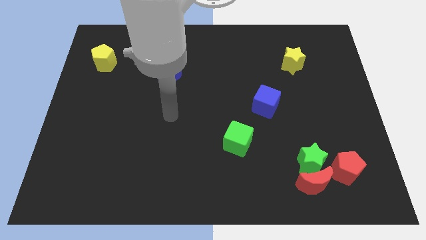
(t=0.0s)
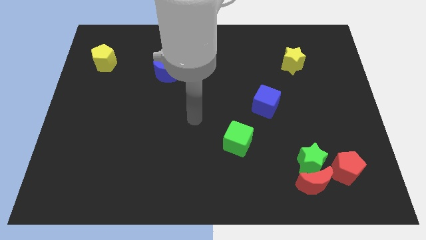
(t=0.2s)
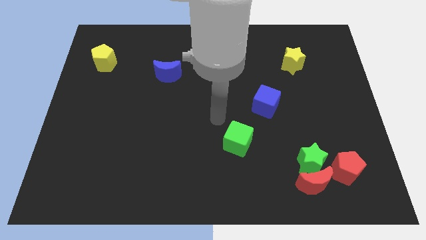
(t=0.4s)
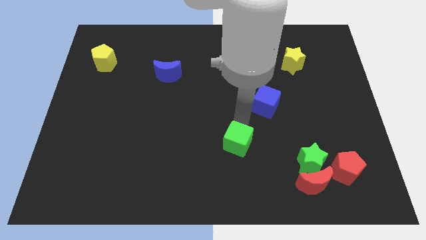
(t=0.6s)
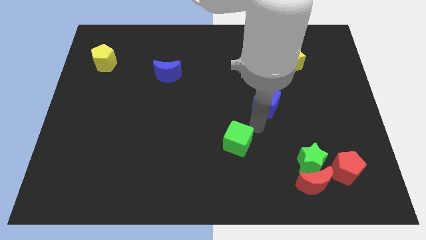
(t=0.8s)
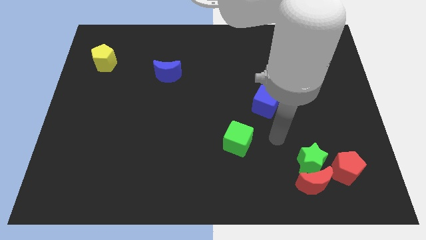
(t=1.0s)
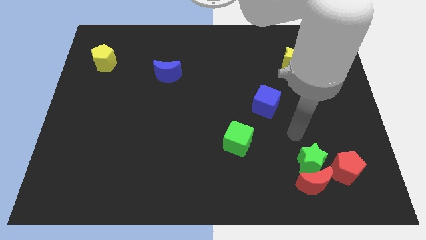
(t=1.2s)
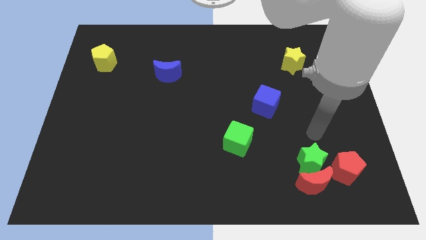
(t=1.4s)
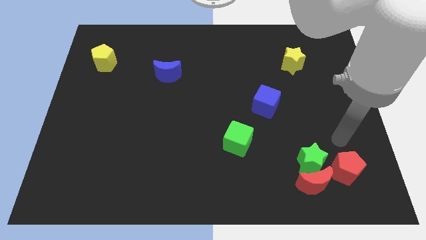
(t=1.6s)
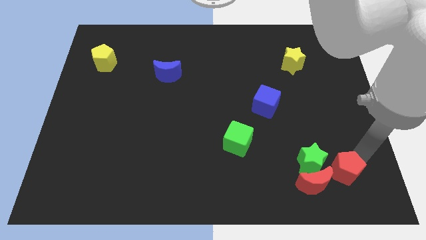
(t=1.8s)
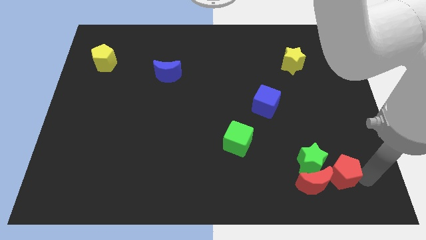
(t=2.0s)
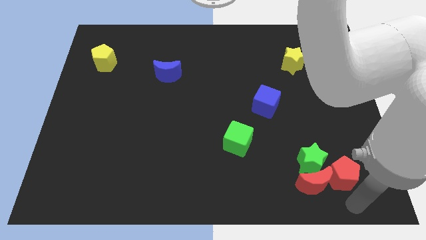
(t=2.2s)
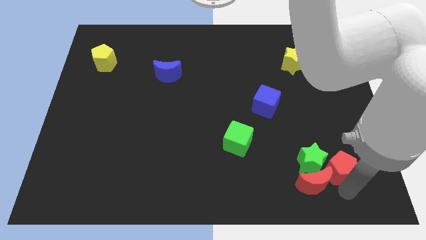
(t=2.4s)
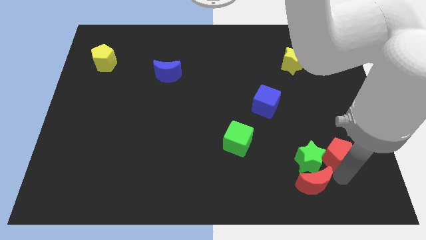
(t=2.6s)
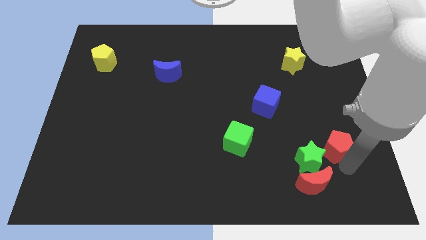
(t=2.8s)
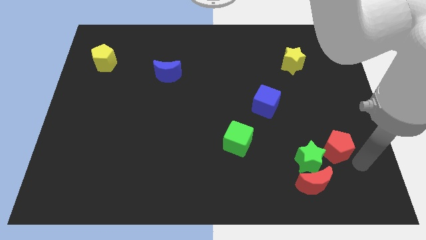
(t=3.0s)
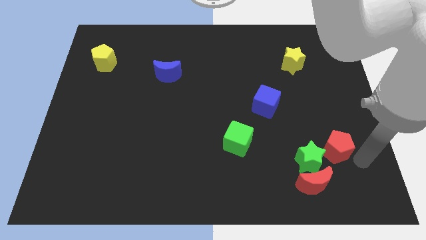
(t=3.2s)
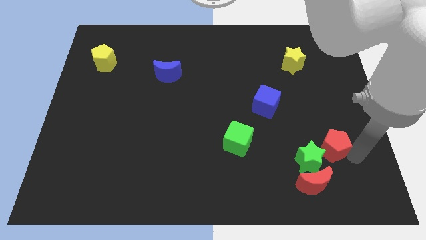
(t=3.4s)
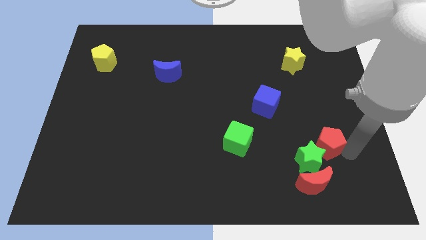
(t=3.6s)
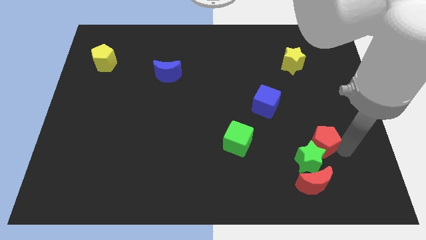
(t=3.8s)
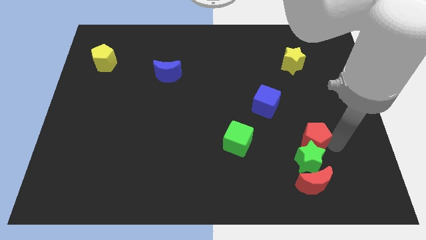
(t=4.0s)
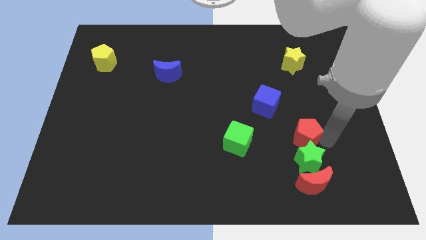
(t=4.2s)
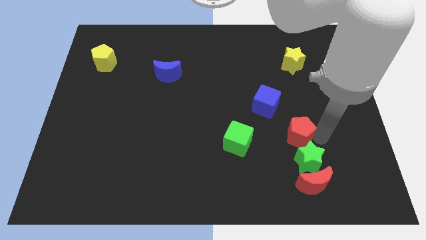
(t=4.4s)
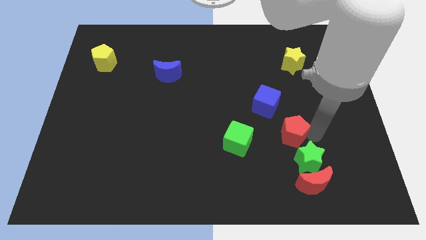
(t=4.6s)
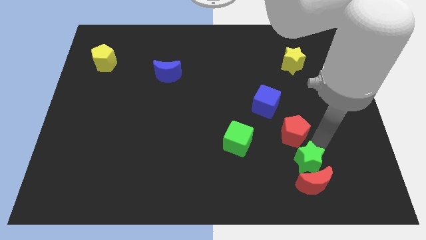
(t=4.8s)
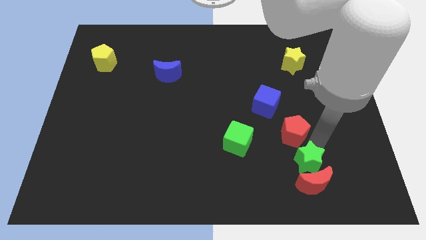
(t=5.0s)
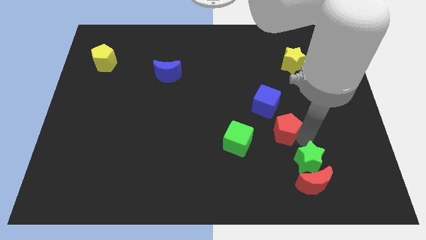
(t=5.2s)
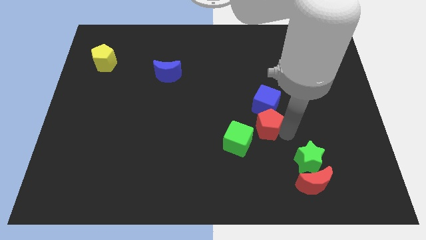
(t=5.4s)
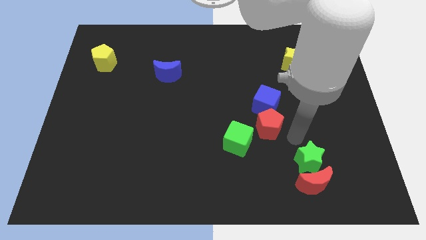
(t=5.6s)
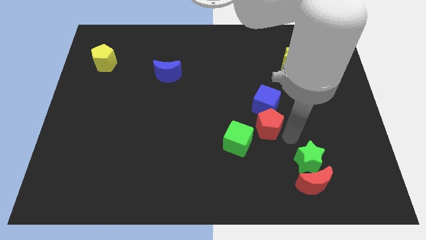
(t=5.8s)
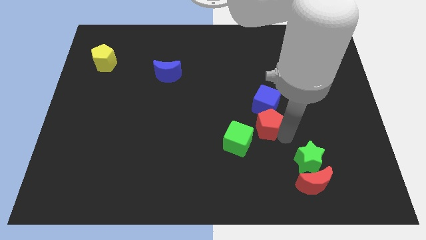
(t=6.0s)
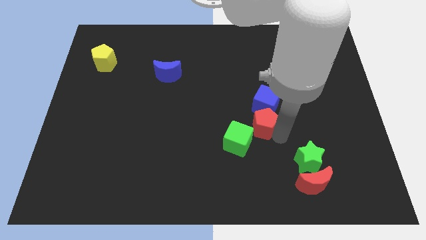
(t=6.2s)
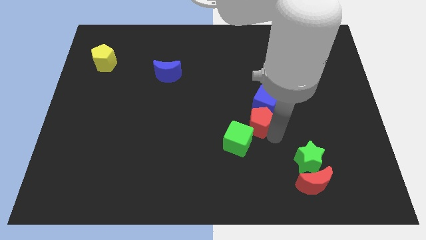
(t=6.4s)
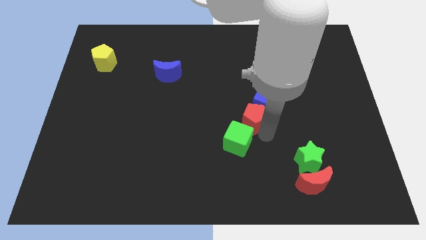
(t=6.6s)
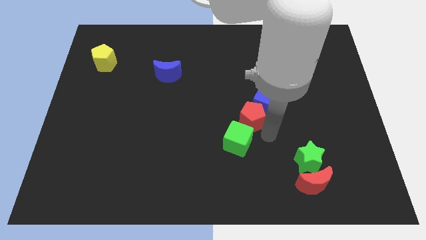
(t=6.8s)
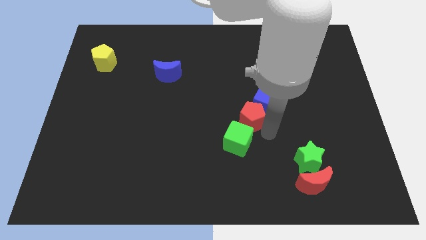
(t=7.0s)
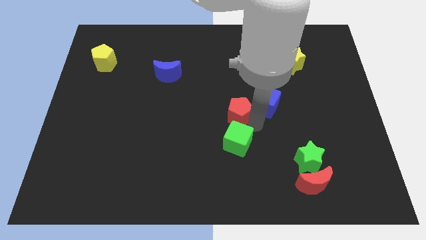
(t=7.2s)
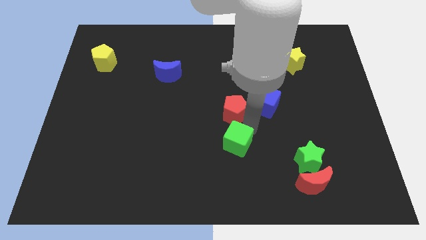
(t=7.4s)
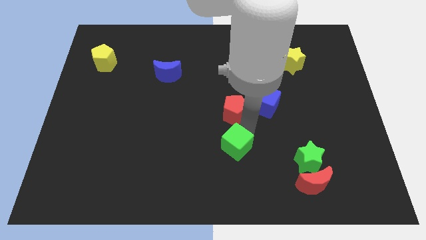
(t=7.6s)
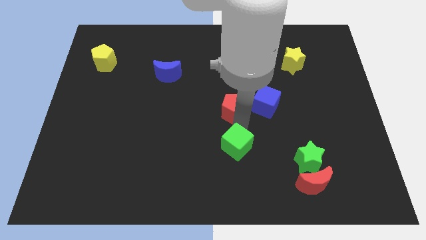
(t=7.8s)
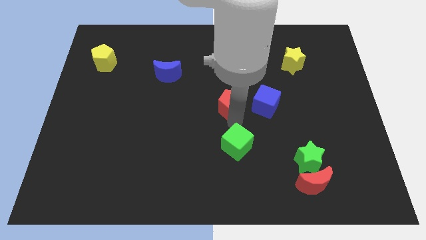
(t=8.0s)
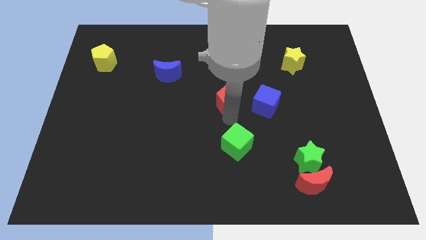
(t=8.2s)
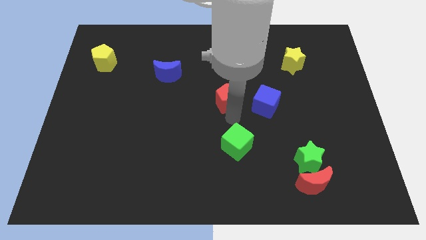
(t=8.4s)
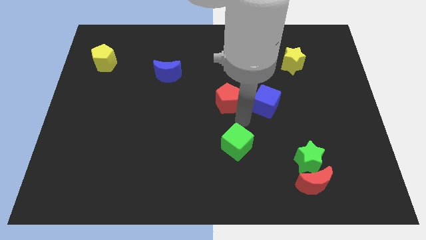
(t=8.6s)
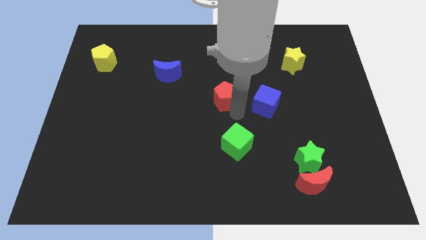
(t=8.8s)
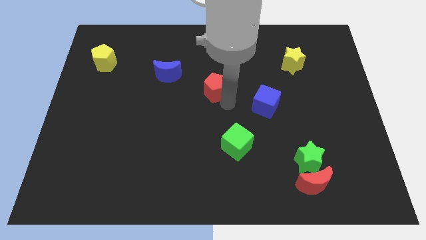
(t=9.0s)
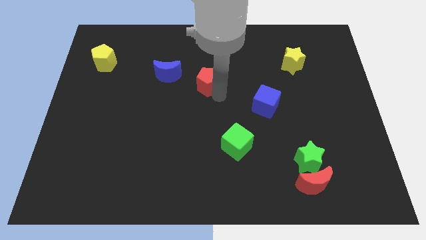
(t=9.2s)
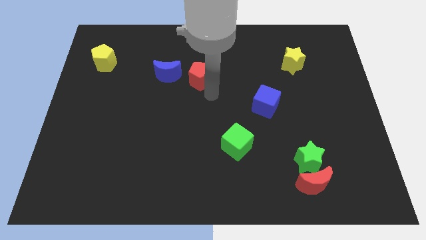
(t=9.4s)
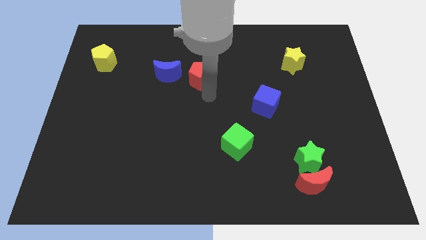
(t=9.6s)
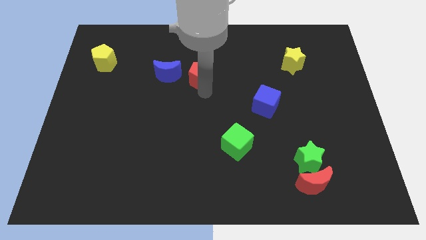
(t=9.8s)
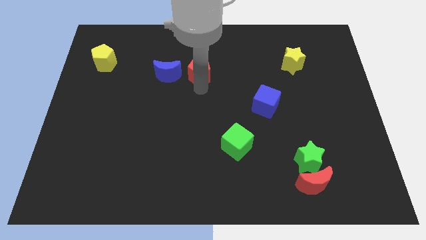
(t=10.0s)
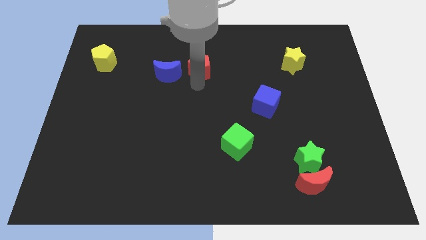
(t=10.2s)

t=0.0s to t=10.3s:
slide the red pentagon to the top right of the blue moon

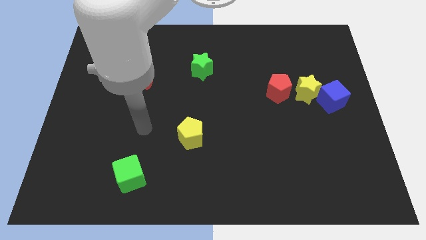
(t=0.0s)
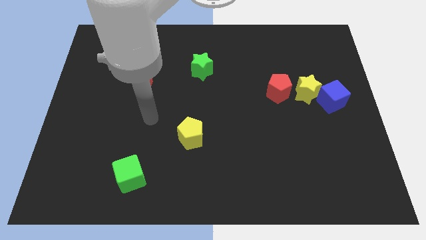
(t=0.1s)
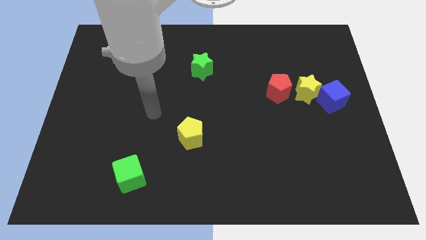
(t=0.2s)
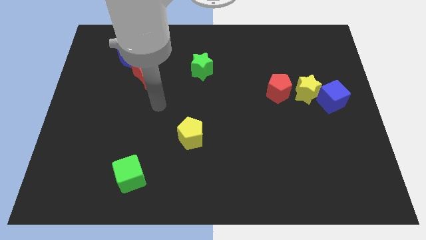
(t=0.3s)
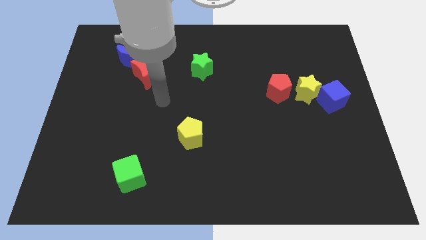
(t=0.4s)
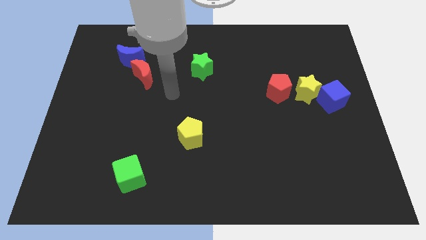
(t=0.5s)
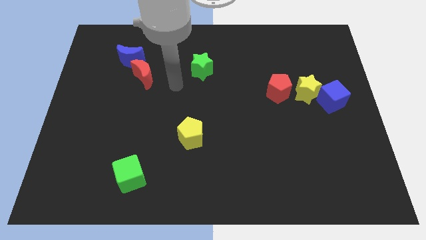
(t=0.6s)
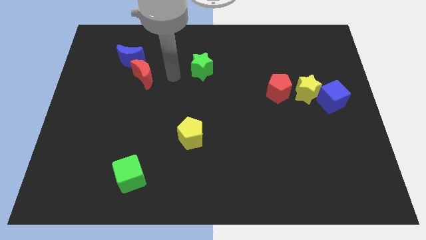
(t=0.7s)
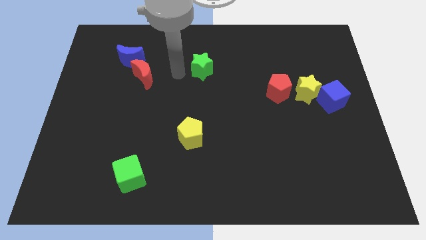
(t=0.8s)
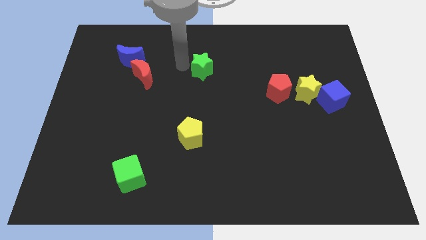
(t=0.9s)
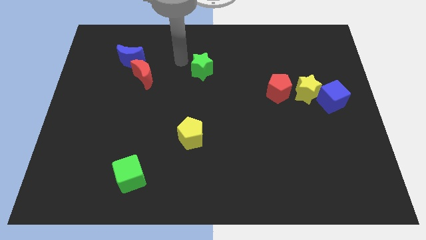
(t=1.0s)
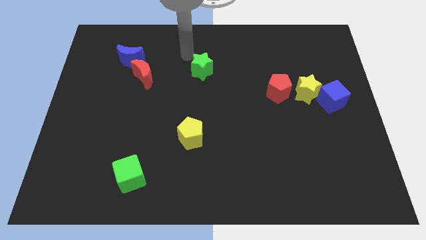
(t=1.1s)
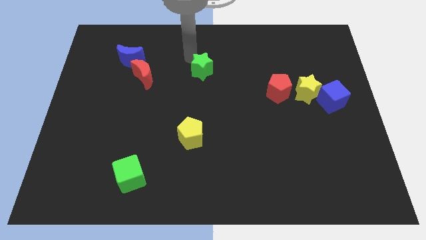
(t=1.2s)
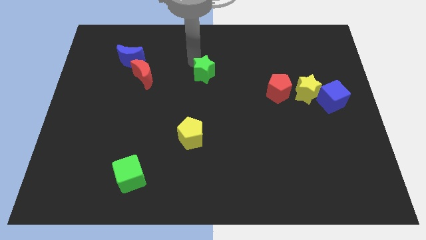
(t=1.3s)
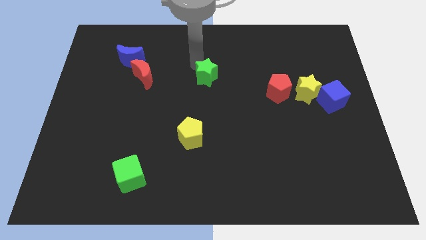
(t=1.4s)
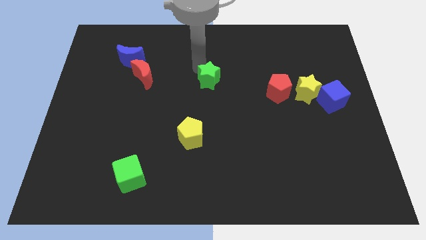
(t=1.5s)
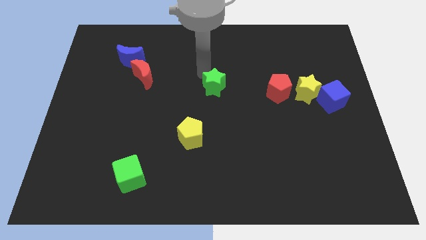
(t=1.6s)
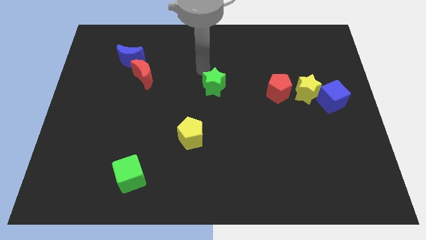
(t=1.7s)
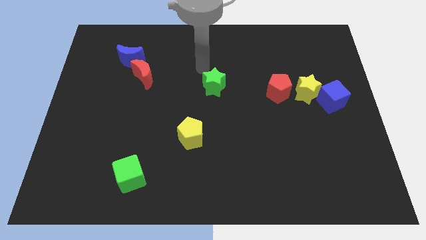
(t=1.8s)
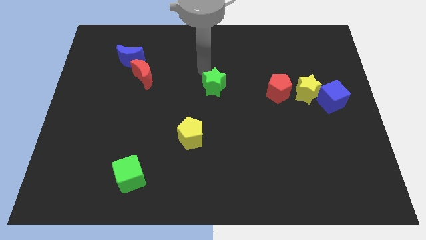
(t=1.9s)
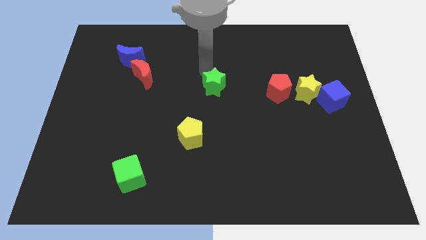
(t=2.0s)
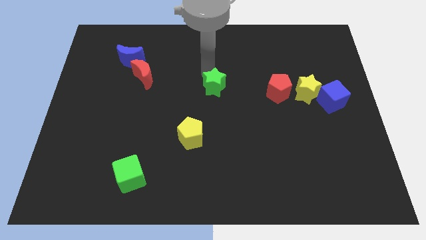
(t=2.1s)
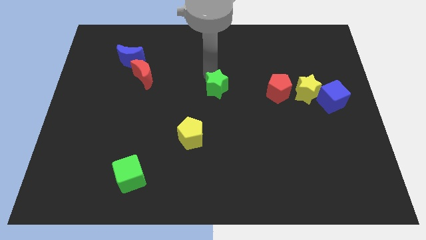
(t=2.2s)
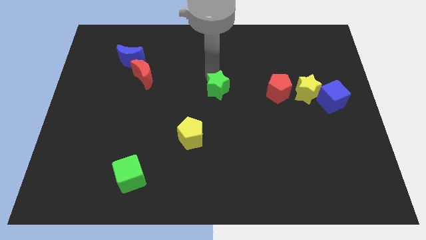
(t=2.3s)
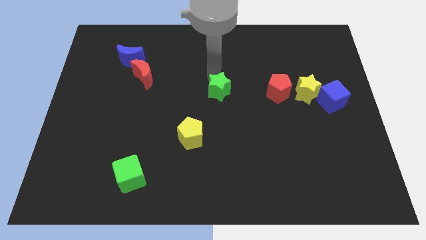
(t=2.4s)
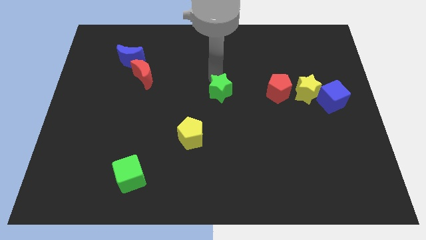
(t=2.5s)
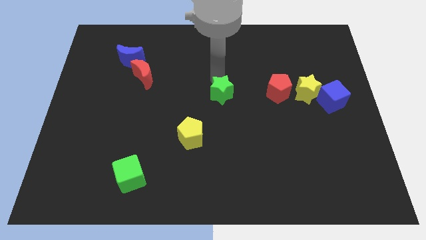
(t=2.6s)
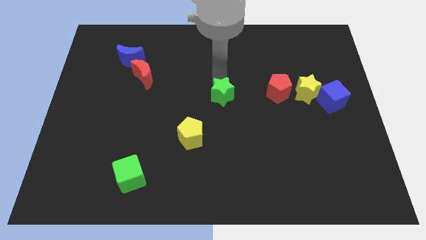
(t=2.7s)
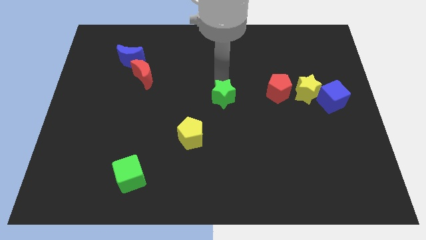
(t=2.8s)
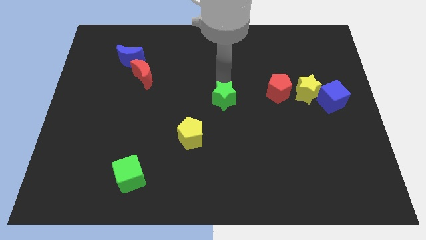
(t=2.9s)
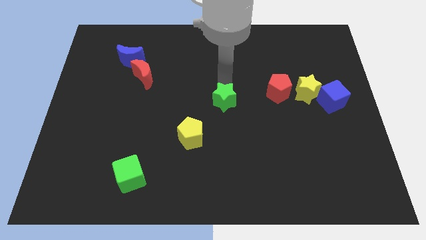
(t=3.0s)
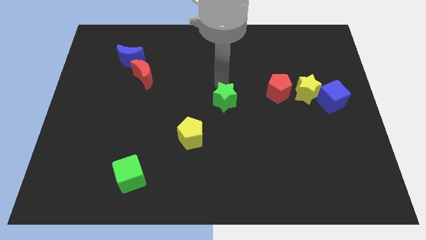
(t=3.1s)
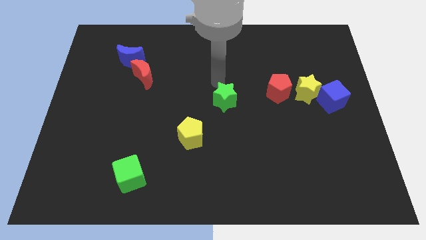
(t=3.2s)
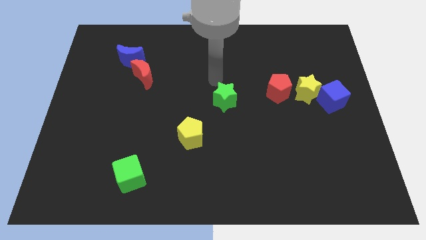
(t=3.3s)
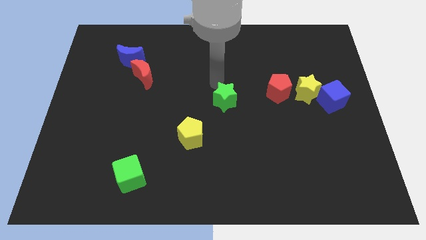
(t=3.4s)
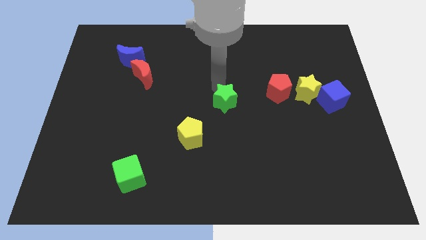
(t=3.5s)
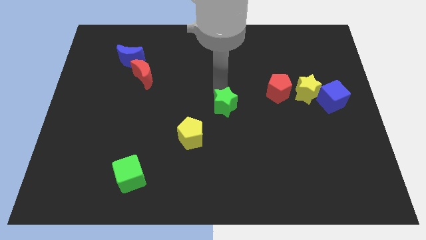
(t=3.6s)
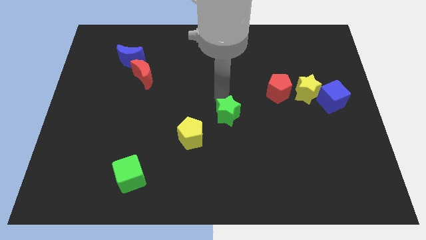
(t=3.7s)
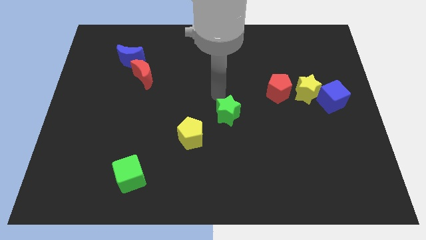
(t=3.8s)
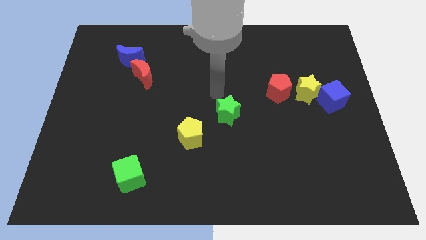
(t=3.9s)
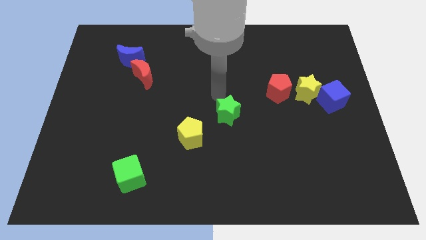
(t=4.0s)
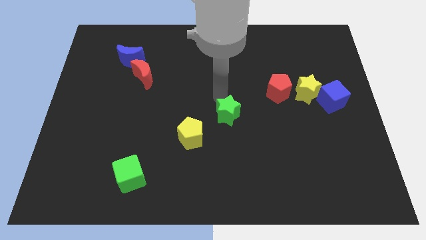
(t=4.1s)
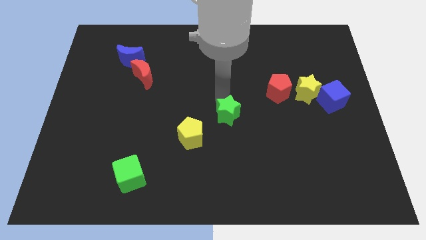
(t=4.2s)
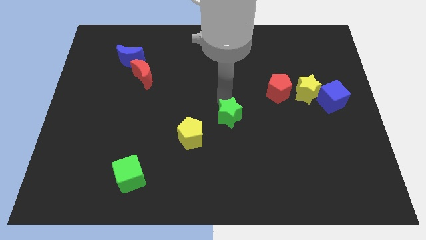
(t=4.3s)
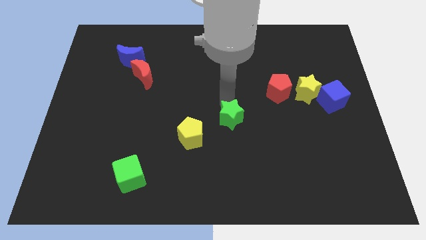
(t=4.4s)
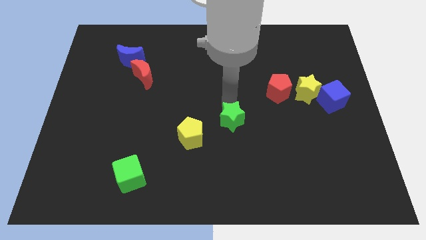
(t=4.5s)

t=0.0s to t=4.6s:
slide the green star just right of the yellow pentagon
